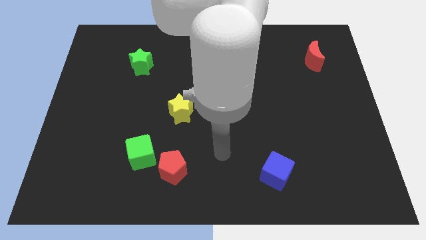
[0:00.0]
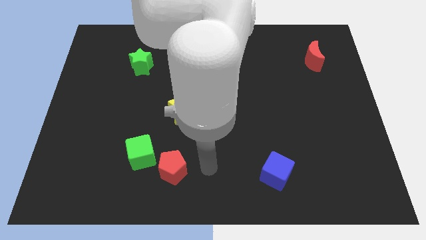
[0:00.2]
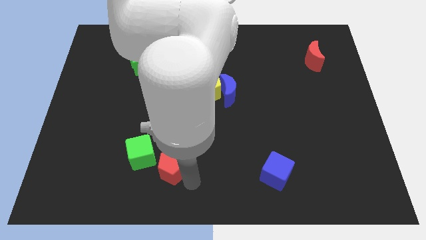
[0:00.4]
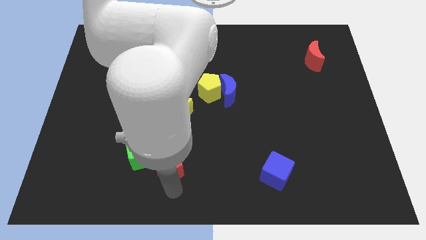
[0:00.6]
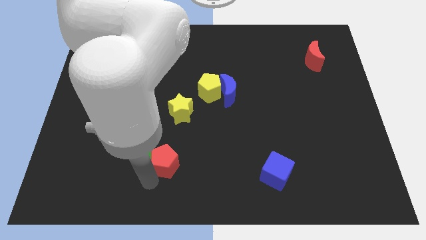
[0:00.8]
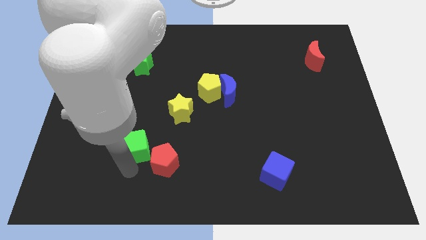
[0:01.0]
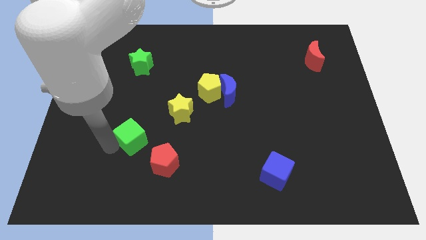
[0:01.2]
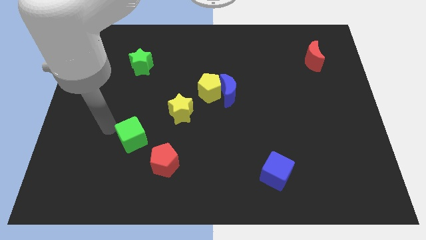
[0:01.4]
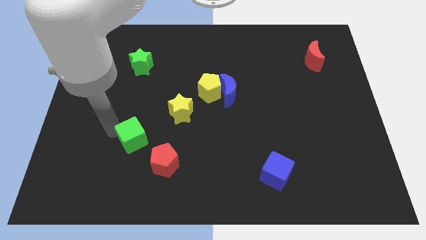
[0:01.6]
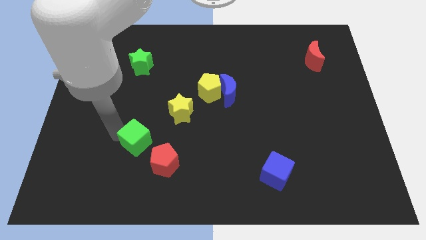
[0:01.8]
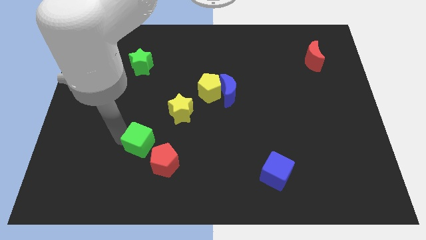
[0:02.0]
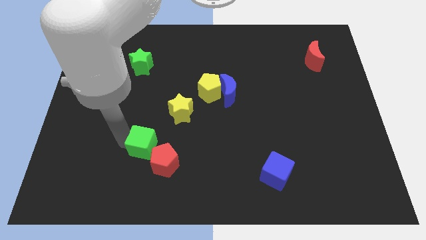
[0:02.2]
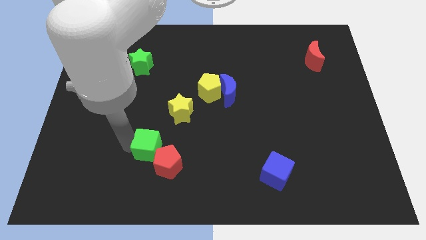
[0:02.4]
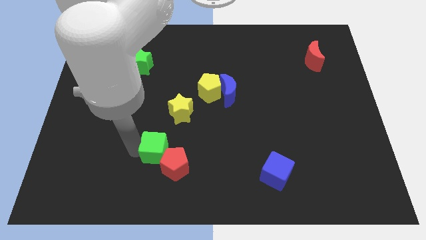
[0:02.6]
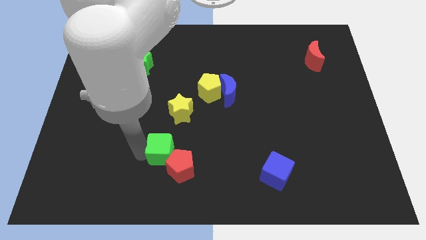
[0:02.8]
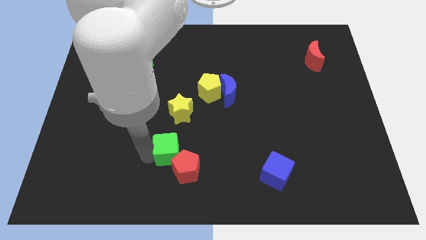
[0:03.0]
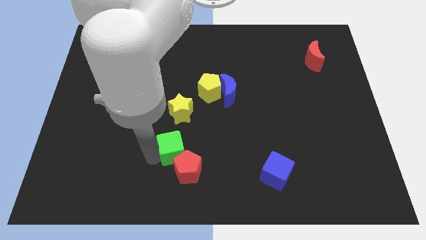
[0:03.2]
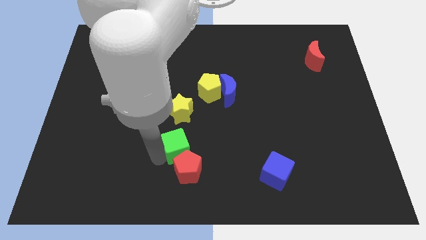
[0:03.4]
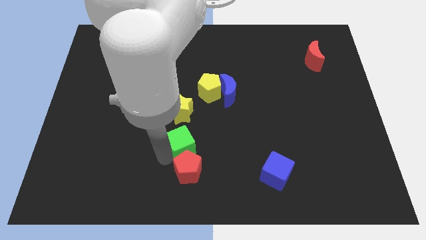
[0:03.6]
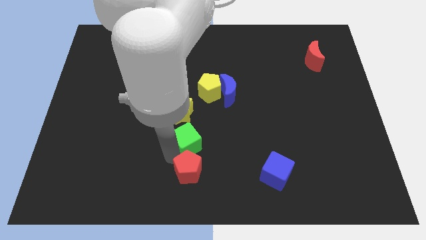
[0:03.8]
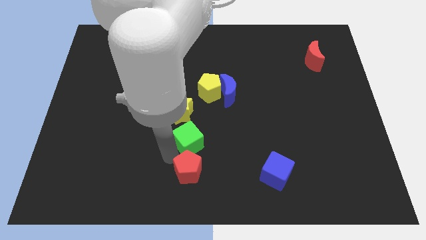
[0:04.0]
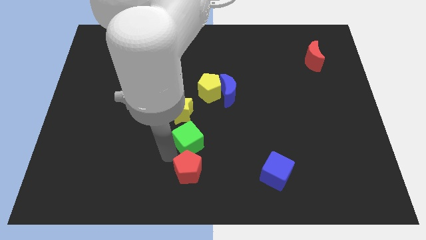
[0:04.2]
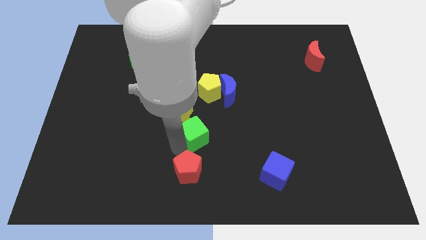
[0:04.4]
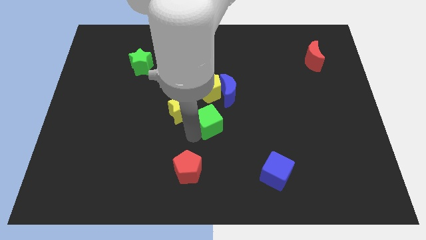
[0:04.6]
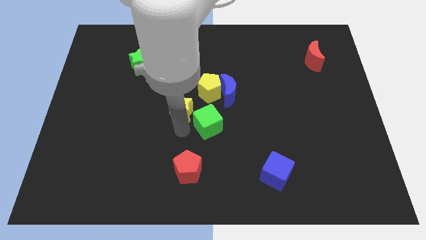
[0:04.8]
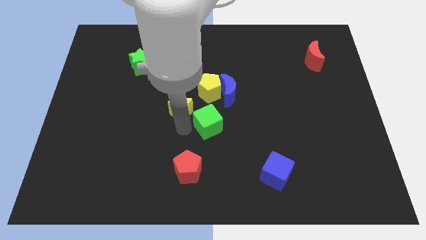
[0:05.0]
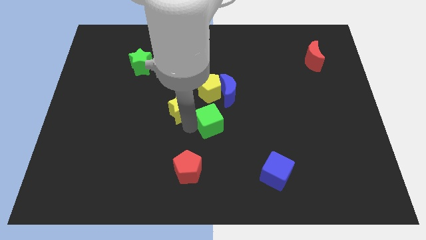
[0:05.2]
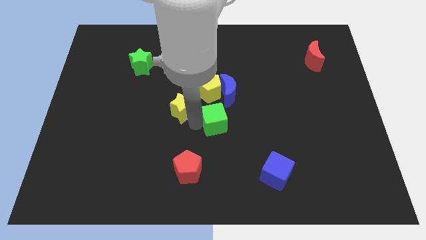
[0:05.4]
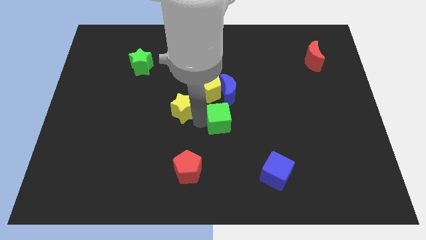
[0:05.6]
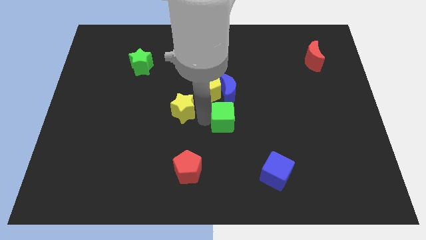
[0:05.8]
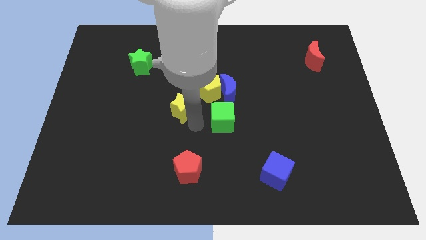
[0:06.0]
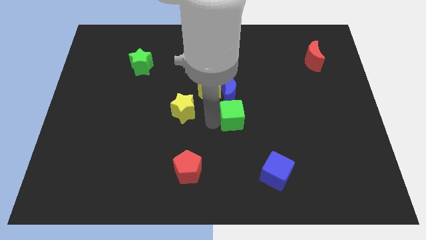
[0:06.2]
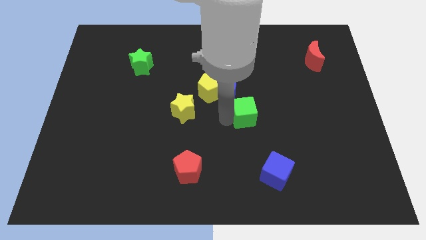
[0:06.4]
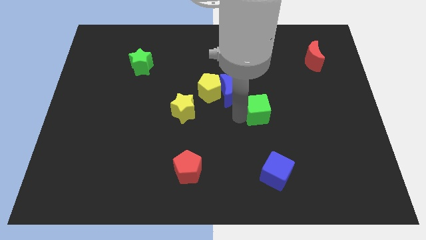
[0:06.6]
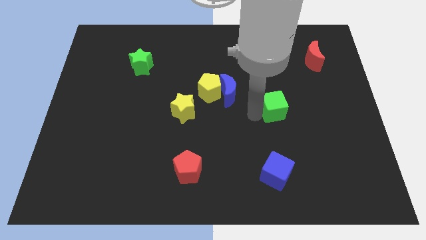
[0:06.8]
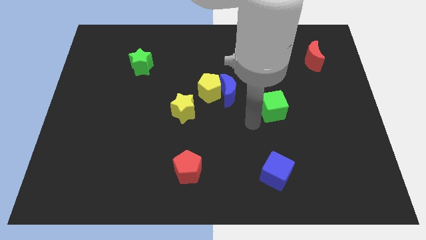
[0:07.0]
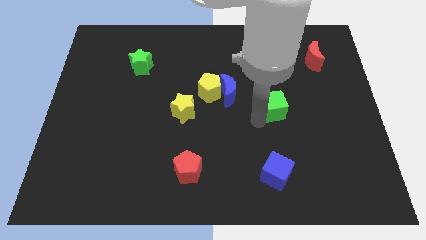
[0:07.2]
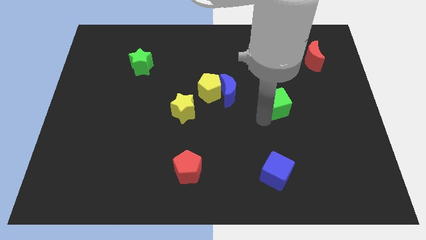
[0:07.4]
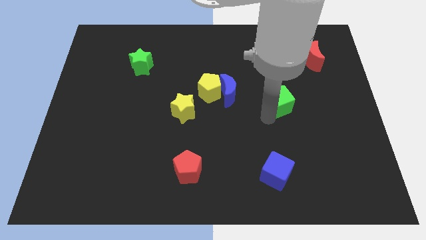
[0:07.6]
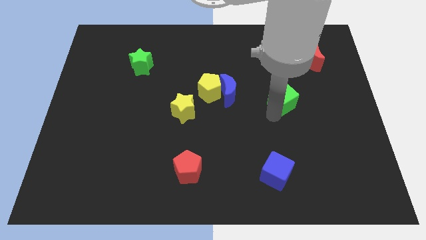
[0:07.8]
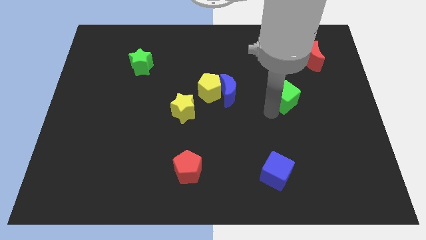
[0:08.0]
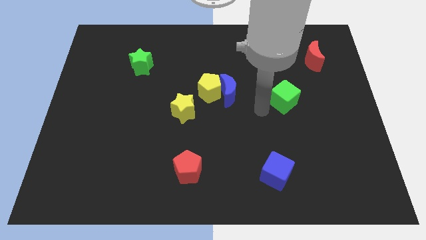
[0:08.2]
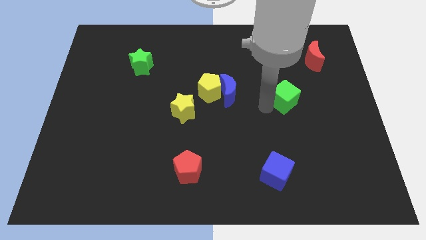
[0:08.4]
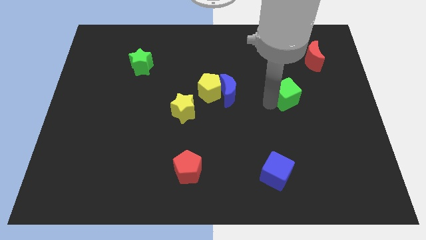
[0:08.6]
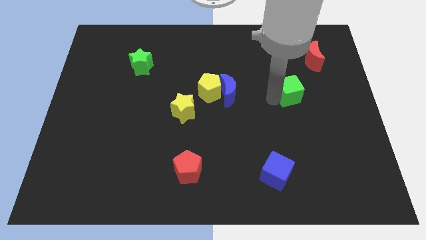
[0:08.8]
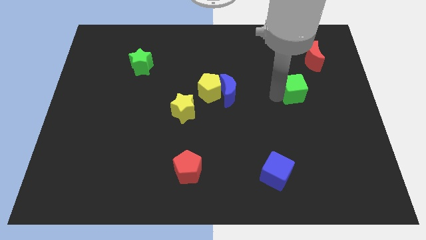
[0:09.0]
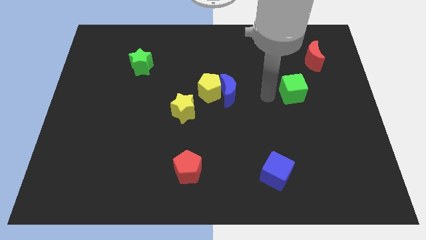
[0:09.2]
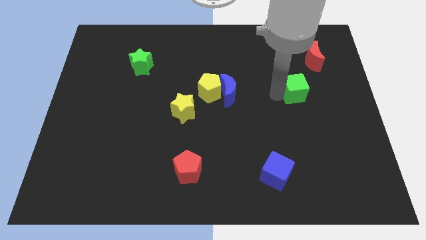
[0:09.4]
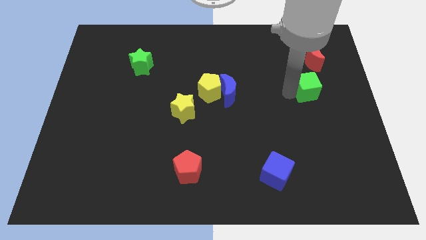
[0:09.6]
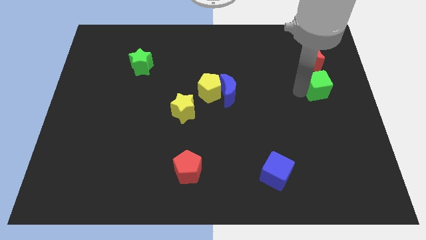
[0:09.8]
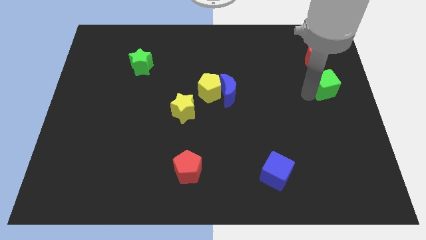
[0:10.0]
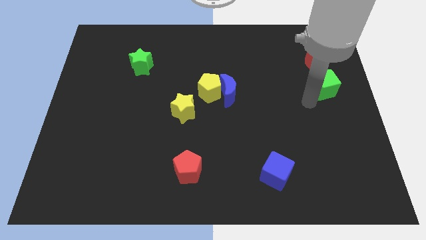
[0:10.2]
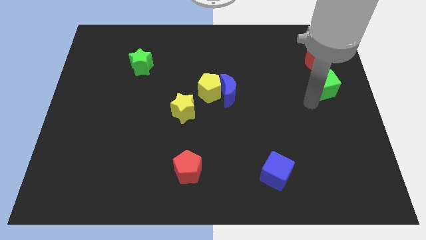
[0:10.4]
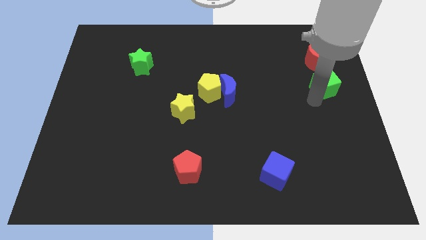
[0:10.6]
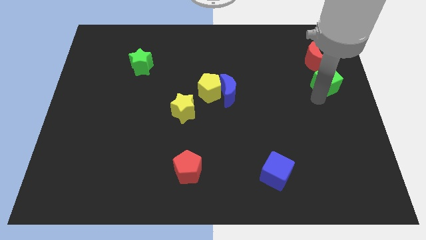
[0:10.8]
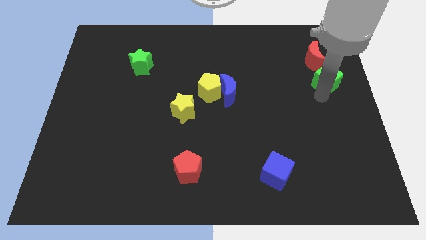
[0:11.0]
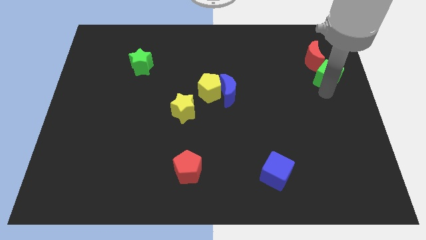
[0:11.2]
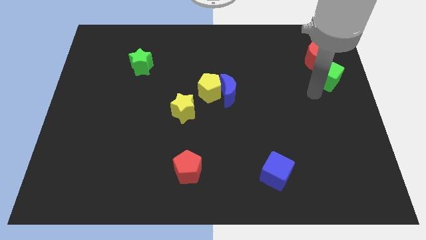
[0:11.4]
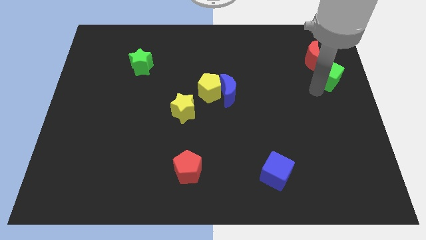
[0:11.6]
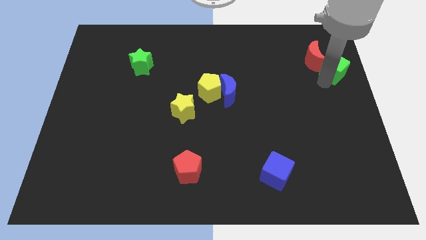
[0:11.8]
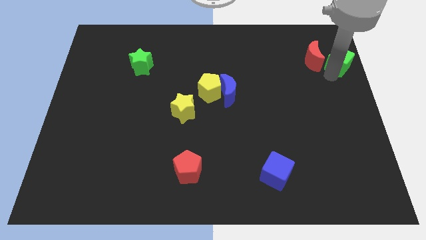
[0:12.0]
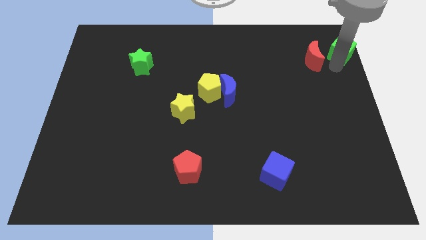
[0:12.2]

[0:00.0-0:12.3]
move the green cube to the upper right corner

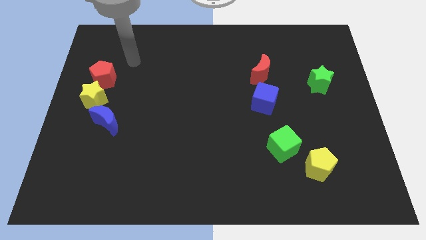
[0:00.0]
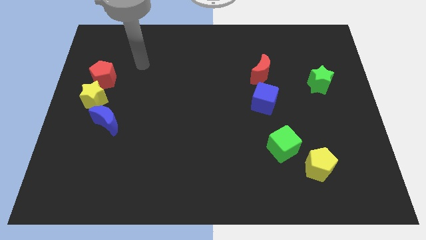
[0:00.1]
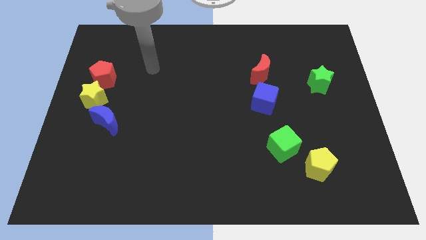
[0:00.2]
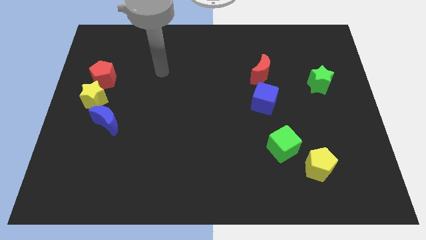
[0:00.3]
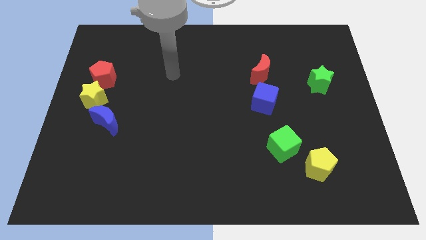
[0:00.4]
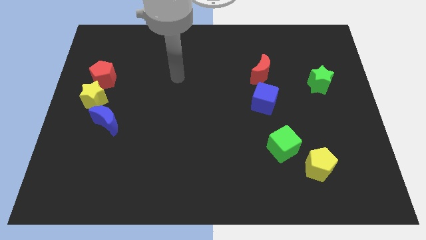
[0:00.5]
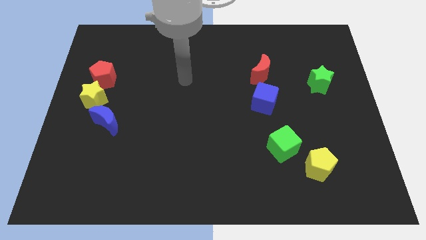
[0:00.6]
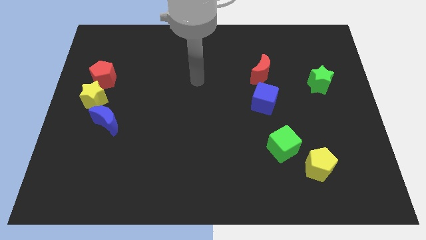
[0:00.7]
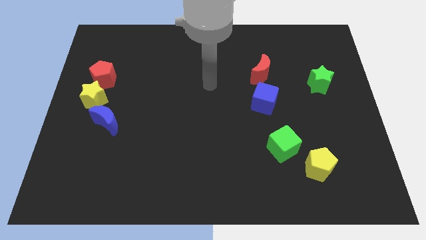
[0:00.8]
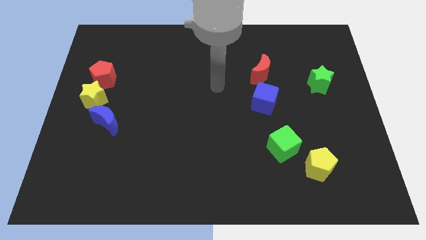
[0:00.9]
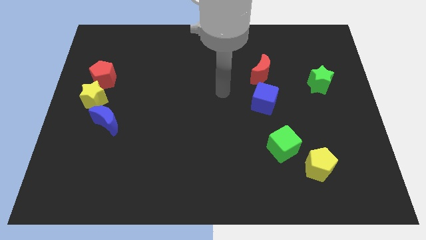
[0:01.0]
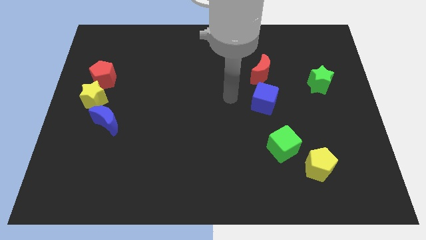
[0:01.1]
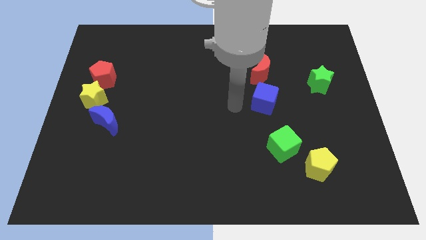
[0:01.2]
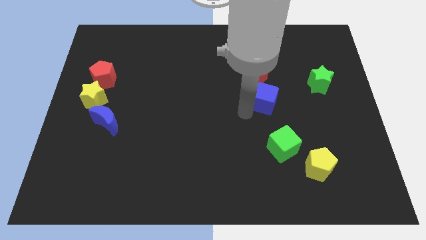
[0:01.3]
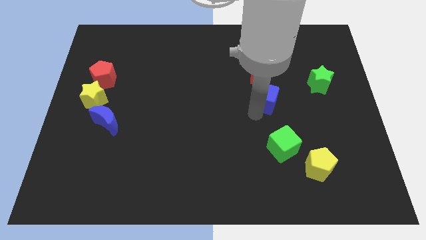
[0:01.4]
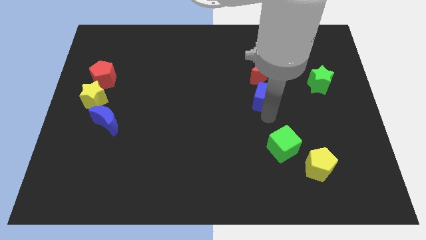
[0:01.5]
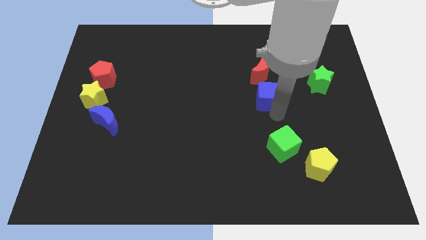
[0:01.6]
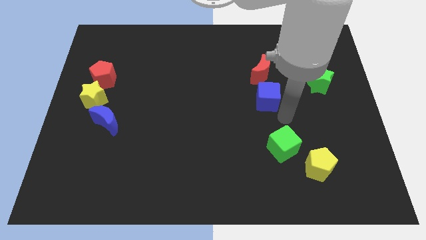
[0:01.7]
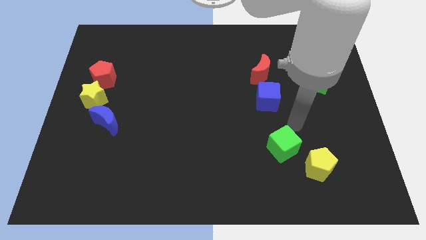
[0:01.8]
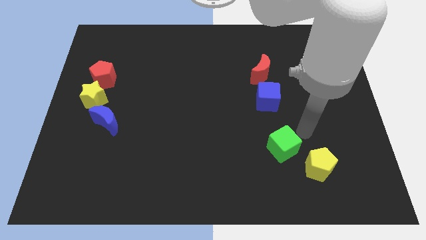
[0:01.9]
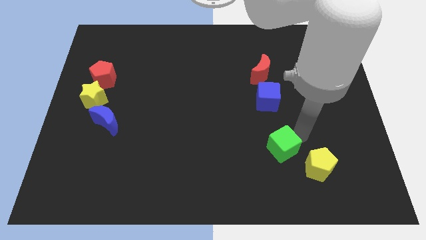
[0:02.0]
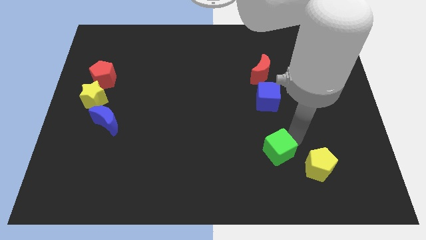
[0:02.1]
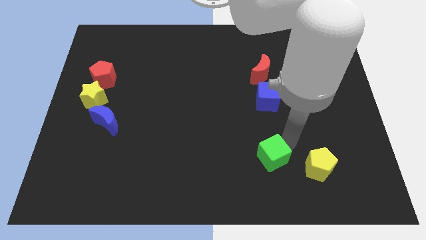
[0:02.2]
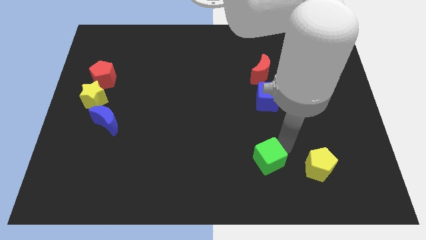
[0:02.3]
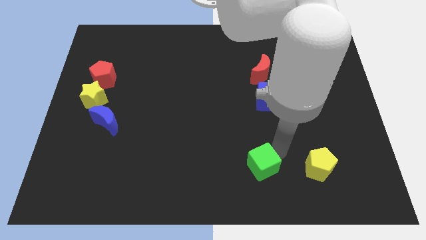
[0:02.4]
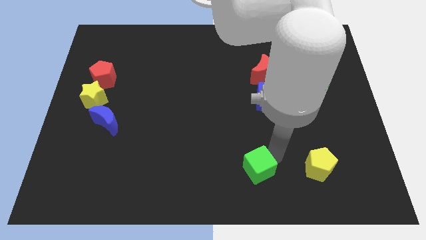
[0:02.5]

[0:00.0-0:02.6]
move the green cube to the bottom side
